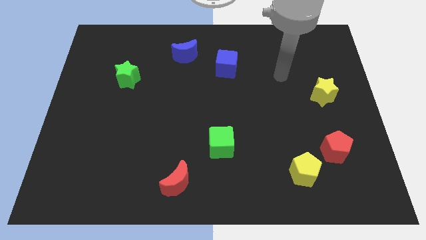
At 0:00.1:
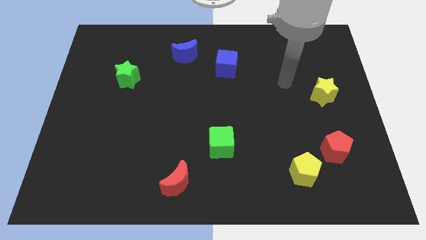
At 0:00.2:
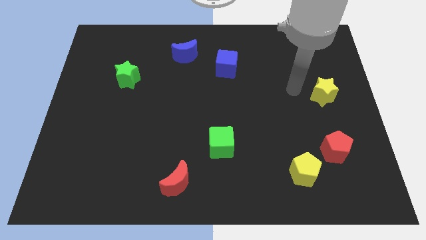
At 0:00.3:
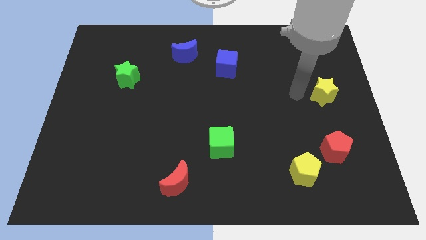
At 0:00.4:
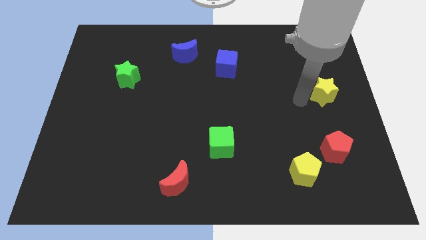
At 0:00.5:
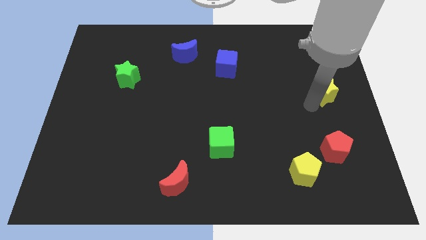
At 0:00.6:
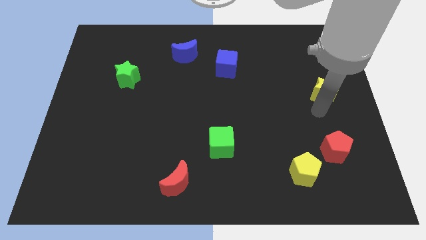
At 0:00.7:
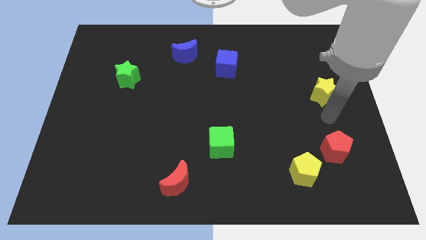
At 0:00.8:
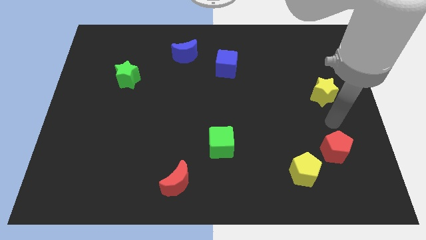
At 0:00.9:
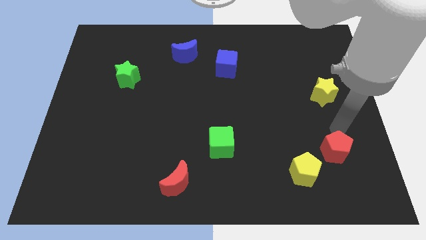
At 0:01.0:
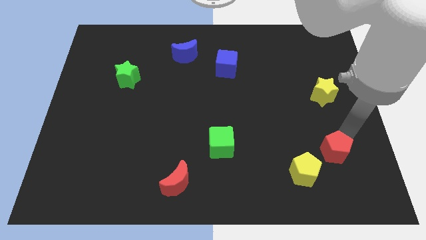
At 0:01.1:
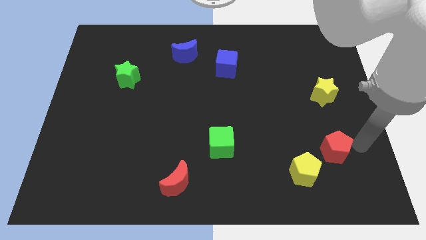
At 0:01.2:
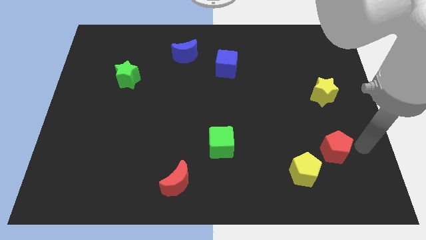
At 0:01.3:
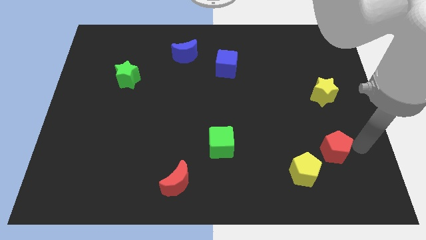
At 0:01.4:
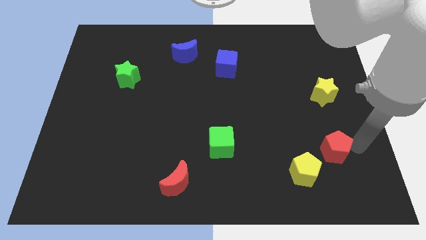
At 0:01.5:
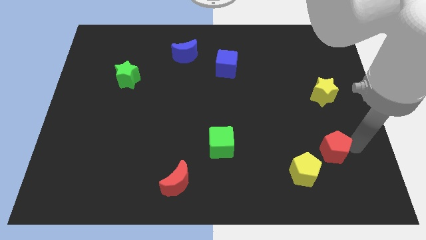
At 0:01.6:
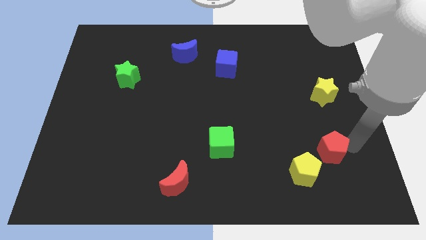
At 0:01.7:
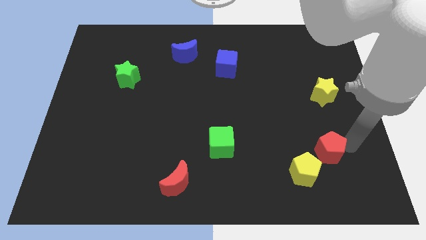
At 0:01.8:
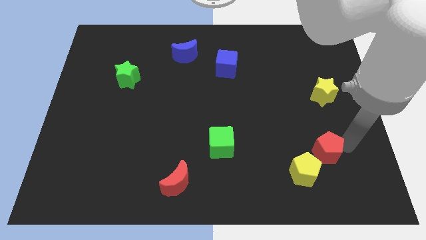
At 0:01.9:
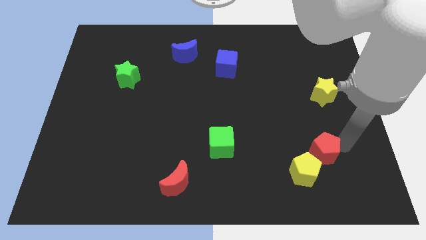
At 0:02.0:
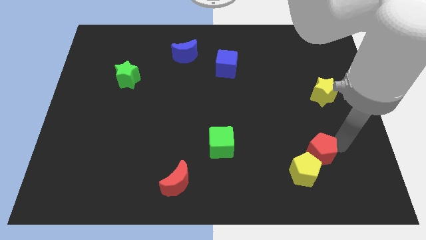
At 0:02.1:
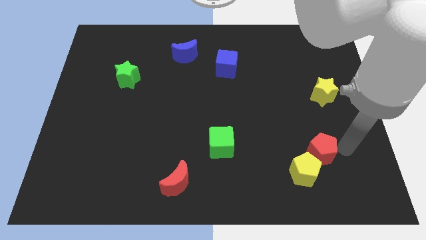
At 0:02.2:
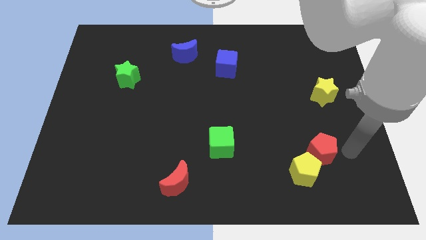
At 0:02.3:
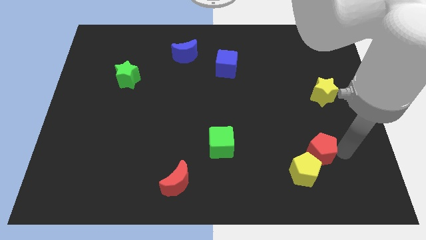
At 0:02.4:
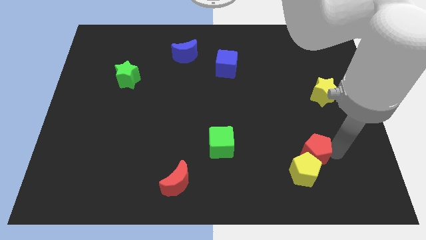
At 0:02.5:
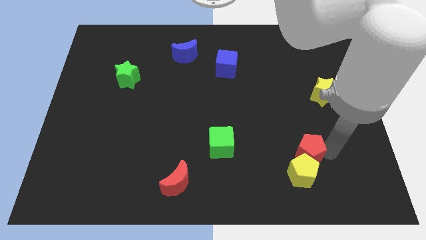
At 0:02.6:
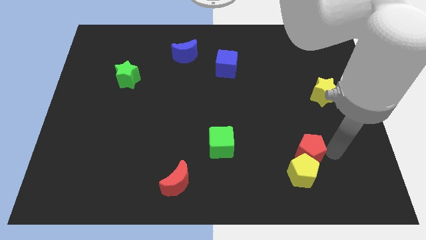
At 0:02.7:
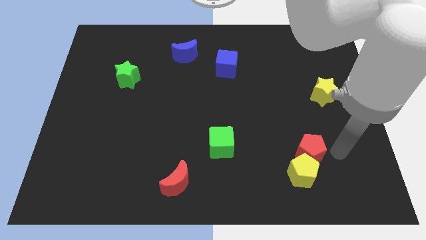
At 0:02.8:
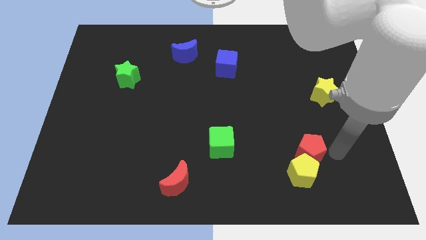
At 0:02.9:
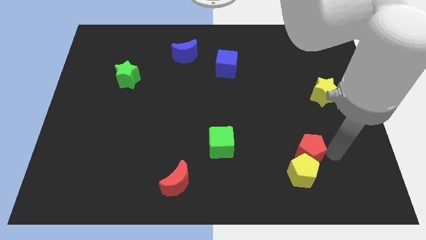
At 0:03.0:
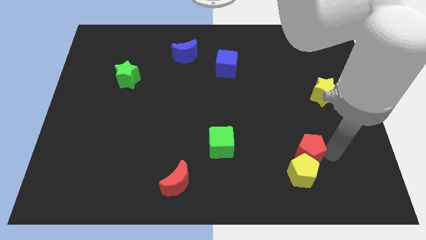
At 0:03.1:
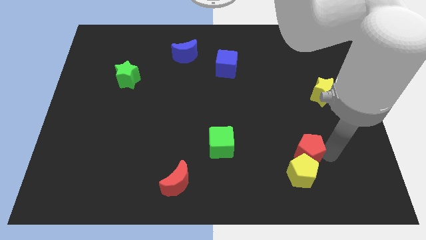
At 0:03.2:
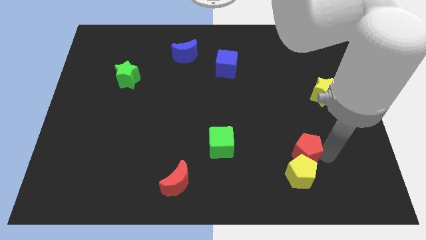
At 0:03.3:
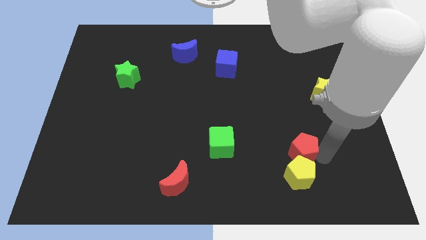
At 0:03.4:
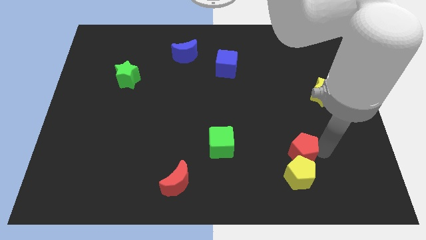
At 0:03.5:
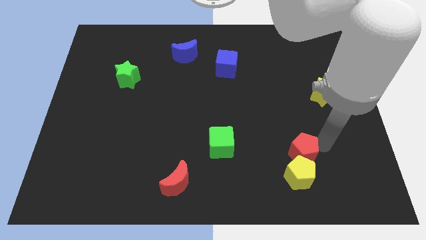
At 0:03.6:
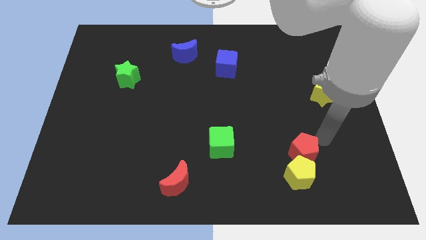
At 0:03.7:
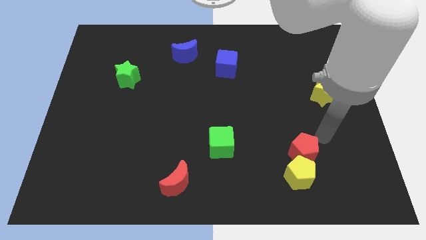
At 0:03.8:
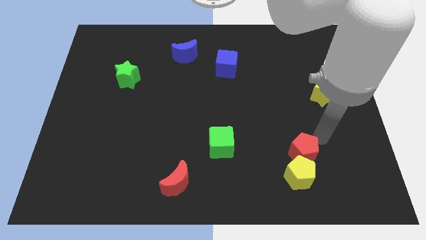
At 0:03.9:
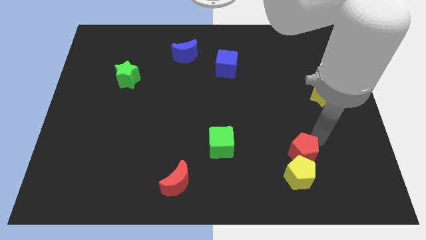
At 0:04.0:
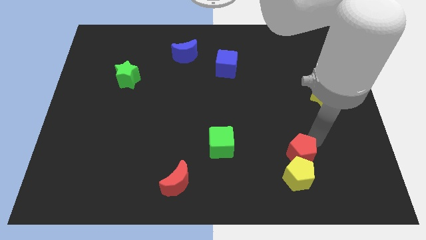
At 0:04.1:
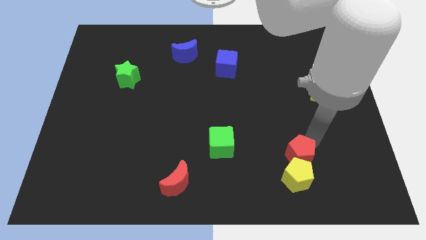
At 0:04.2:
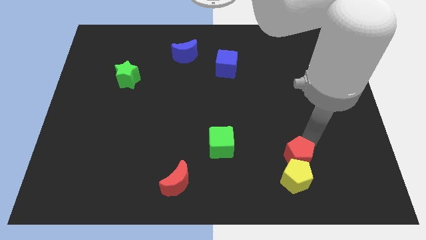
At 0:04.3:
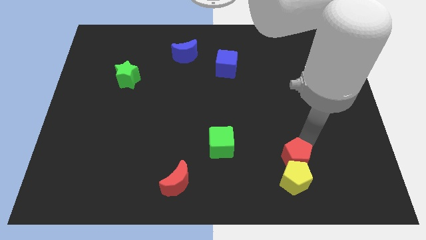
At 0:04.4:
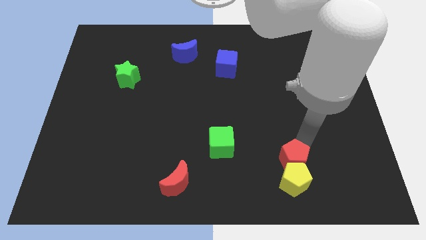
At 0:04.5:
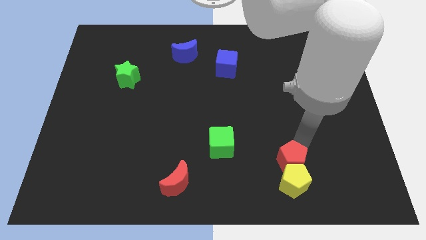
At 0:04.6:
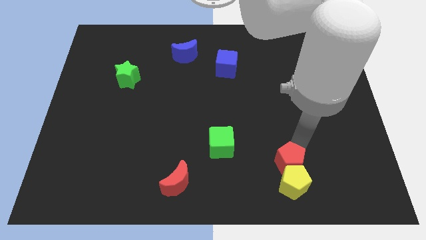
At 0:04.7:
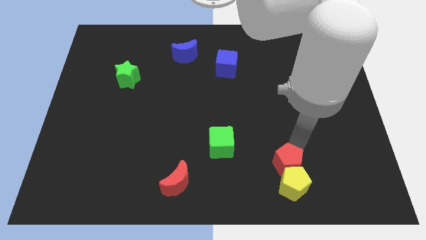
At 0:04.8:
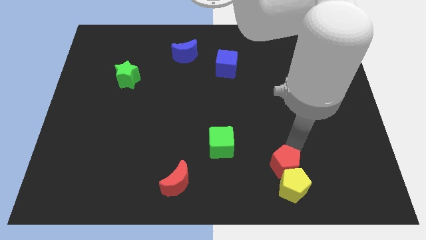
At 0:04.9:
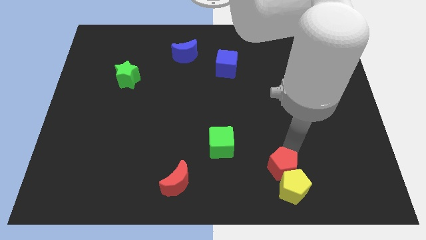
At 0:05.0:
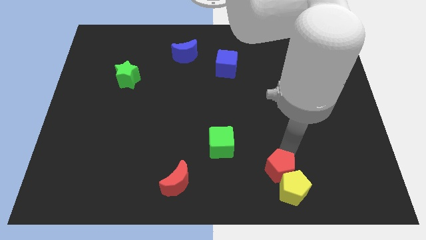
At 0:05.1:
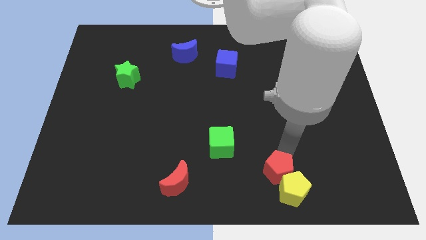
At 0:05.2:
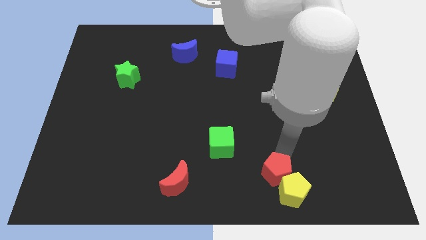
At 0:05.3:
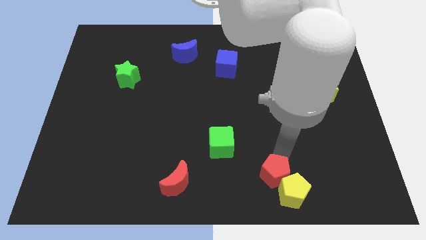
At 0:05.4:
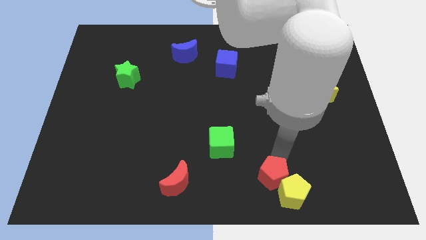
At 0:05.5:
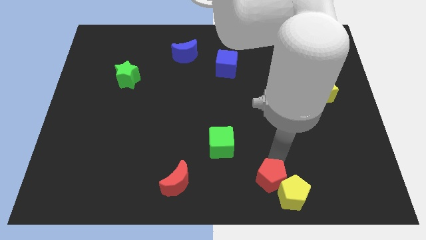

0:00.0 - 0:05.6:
slide the red pentagon to the bottom

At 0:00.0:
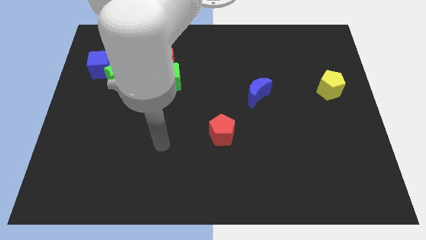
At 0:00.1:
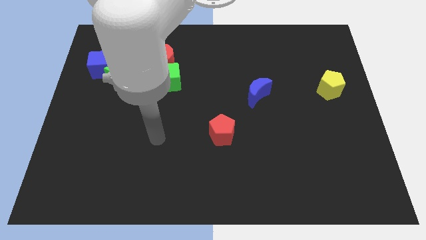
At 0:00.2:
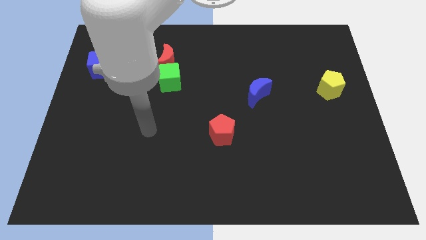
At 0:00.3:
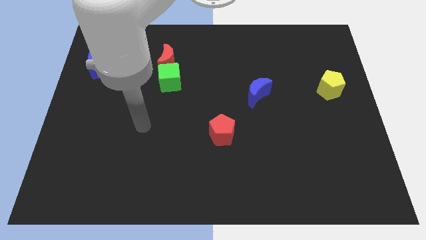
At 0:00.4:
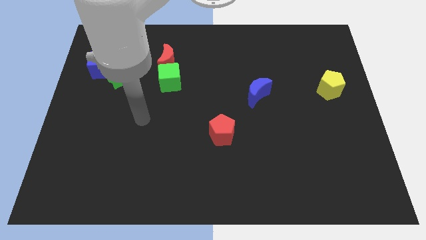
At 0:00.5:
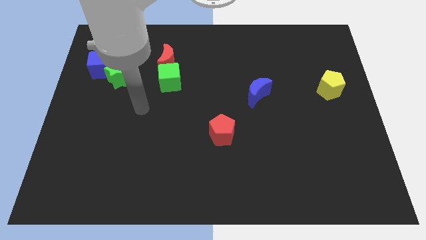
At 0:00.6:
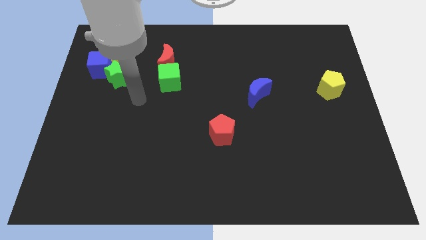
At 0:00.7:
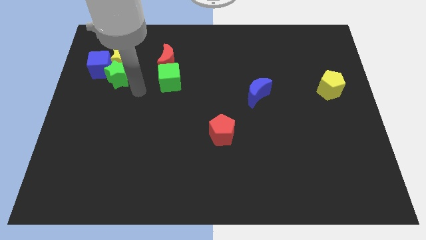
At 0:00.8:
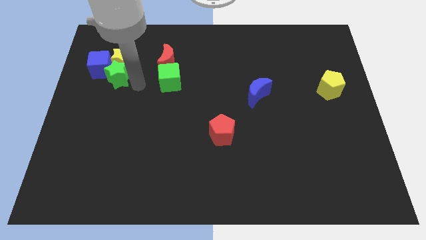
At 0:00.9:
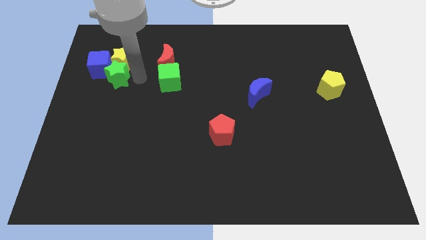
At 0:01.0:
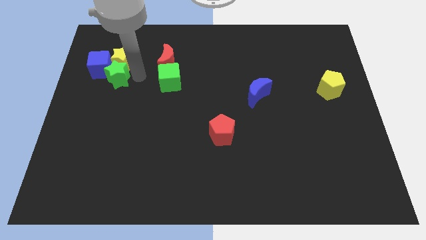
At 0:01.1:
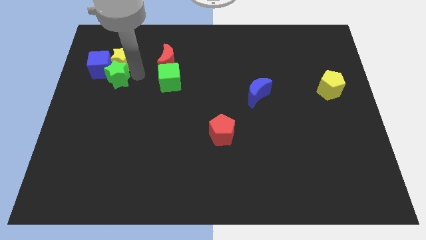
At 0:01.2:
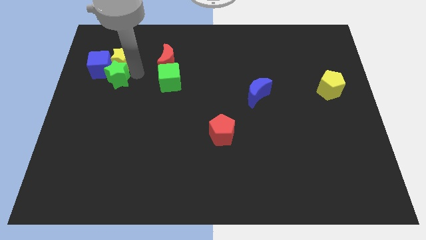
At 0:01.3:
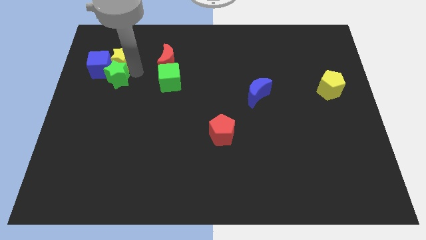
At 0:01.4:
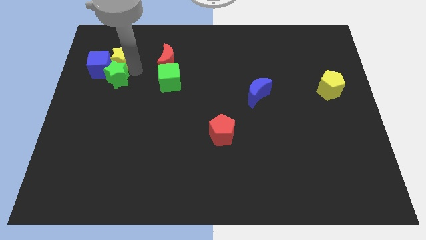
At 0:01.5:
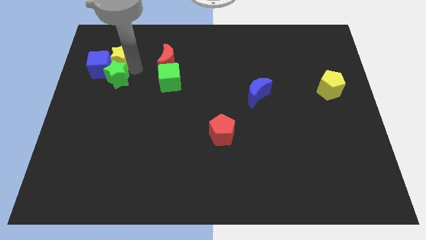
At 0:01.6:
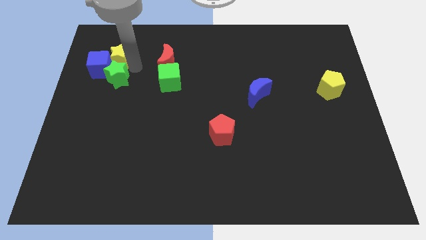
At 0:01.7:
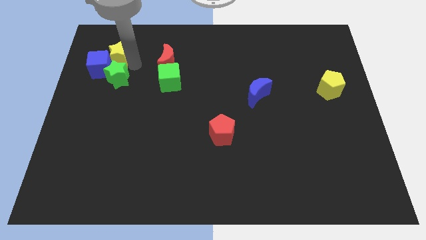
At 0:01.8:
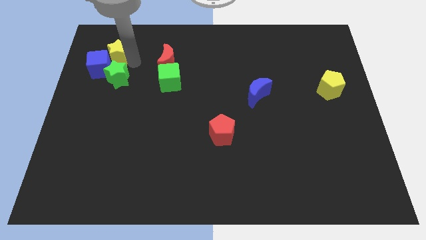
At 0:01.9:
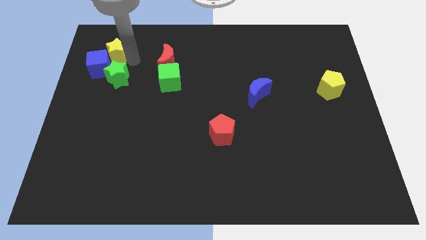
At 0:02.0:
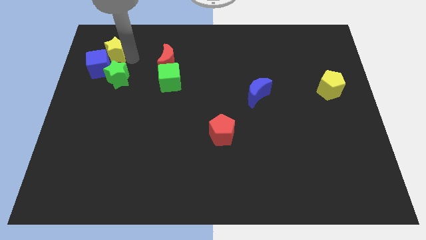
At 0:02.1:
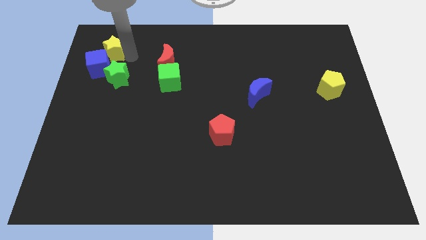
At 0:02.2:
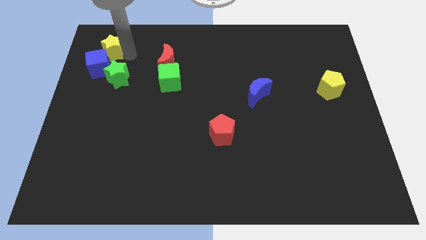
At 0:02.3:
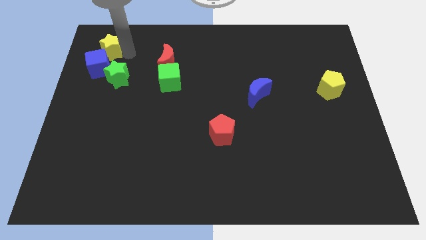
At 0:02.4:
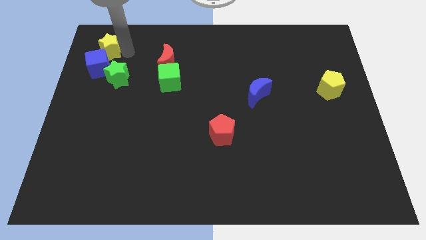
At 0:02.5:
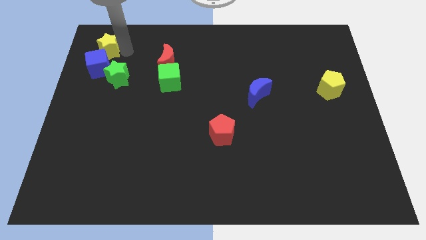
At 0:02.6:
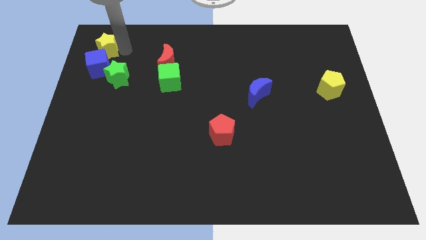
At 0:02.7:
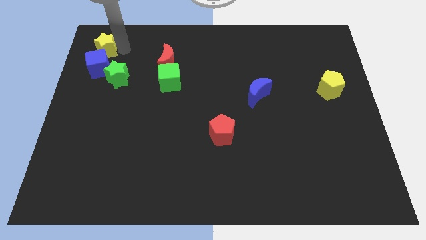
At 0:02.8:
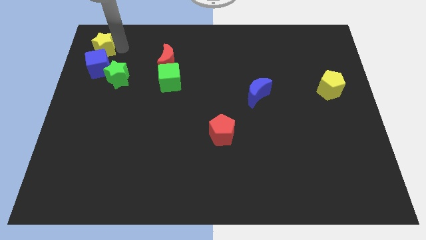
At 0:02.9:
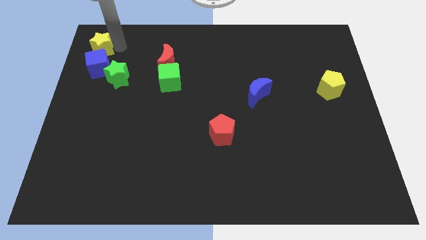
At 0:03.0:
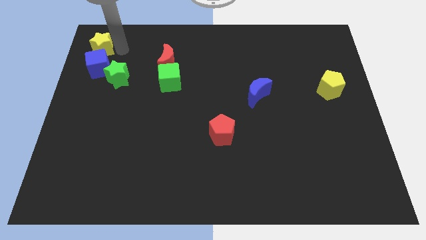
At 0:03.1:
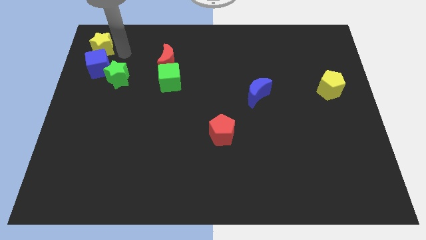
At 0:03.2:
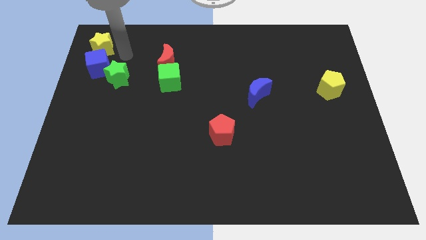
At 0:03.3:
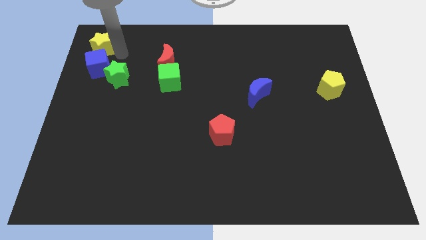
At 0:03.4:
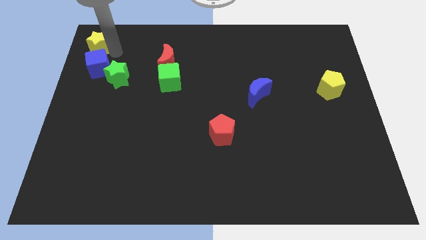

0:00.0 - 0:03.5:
push the yellow star to the top left of the board
